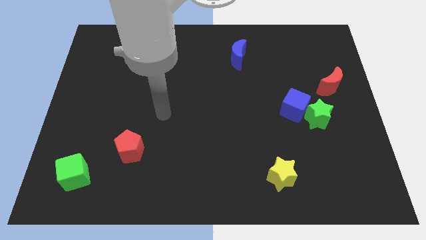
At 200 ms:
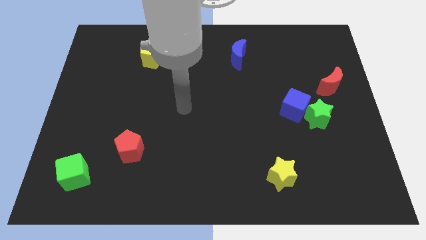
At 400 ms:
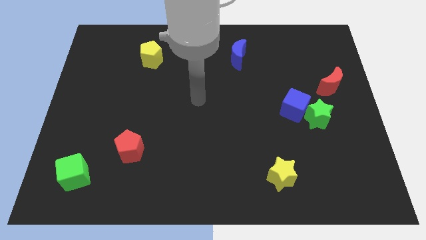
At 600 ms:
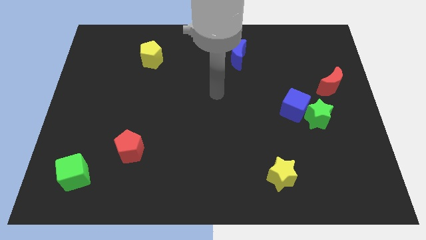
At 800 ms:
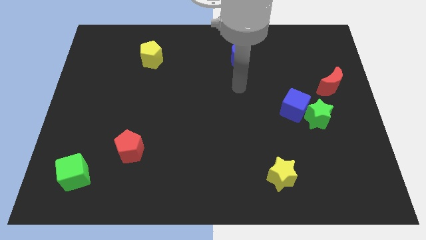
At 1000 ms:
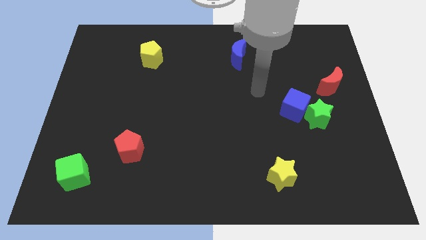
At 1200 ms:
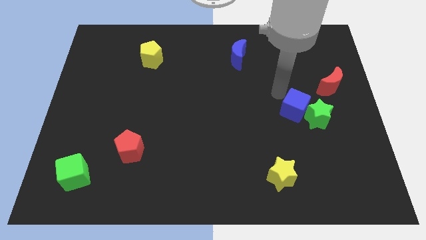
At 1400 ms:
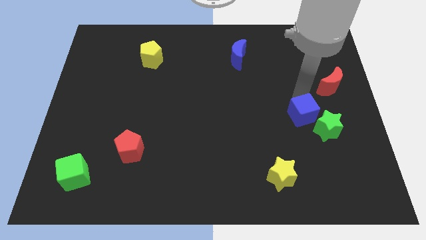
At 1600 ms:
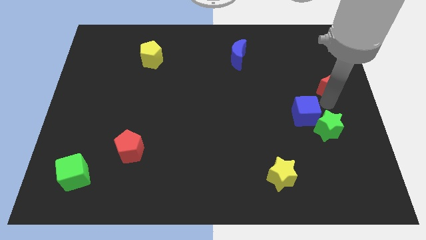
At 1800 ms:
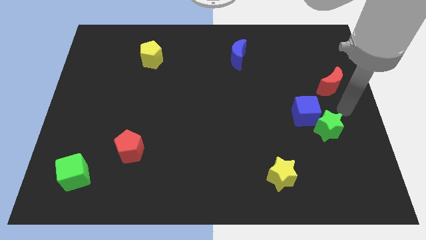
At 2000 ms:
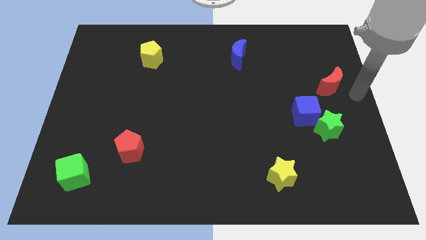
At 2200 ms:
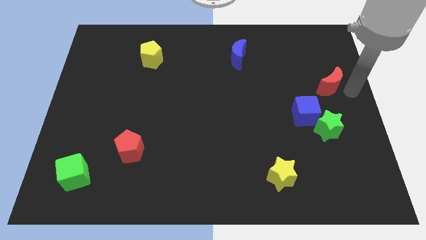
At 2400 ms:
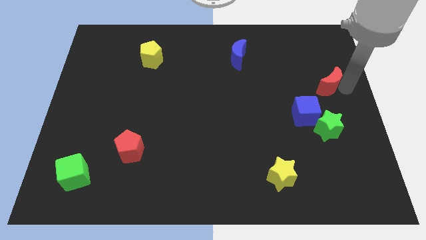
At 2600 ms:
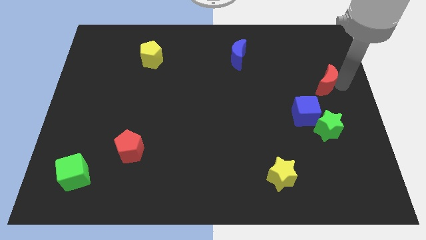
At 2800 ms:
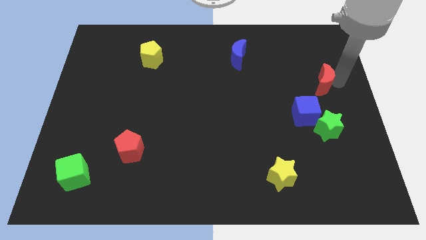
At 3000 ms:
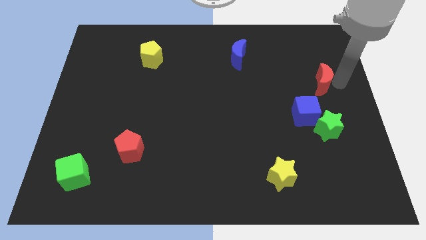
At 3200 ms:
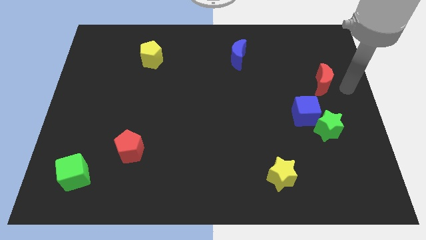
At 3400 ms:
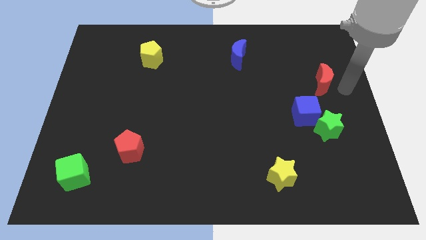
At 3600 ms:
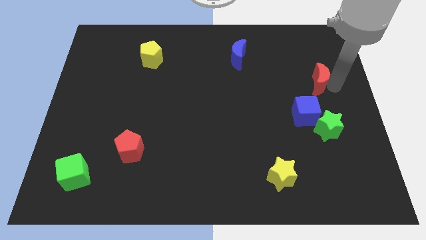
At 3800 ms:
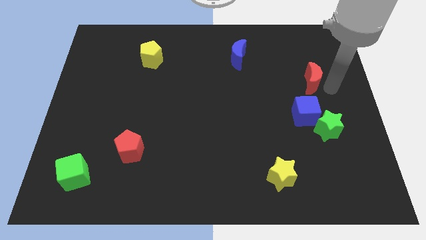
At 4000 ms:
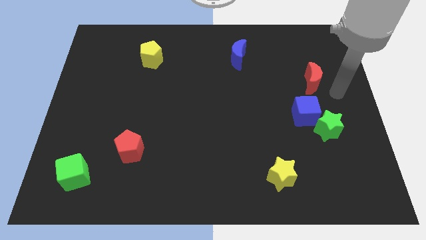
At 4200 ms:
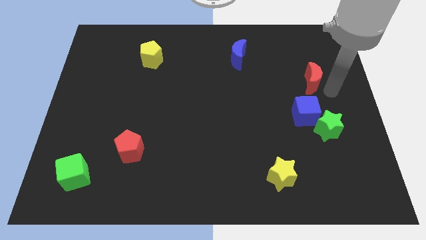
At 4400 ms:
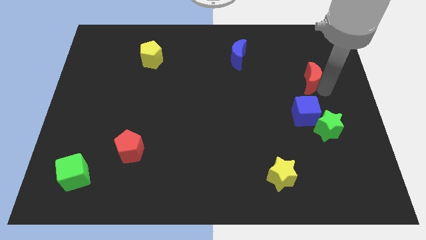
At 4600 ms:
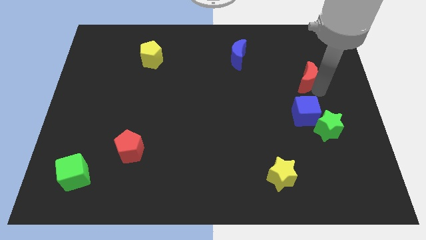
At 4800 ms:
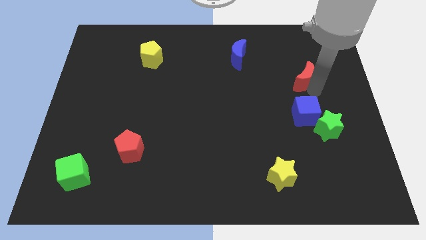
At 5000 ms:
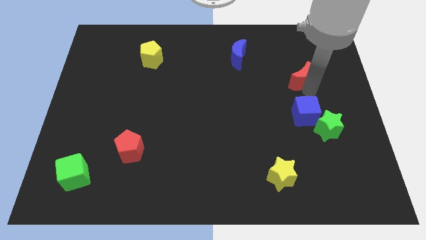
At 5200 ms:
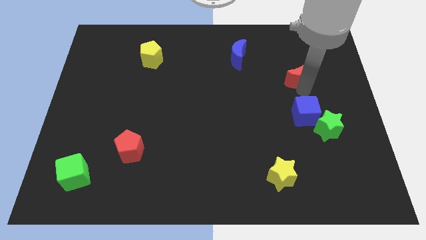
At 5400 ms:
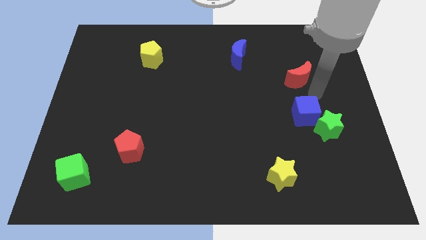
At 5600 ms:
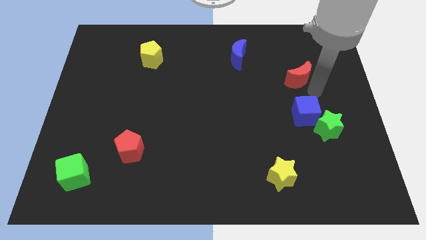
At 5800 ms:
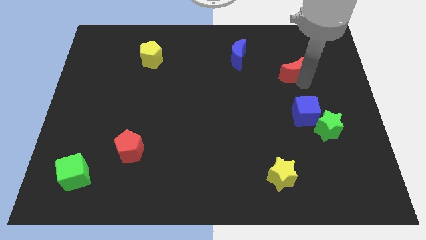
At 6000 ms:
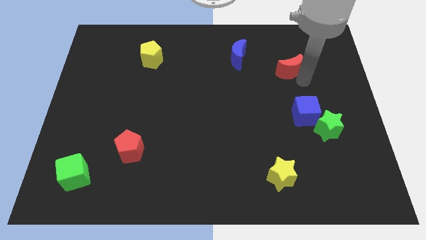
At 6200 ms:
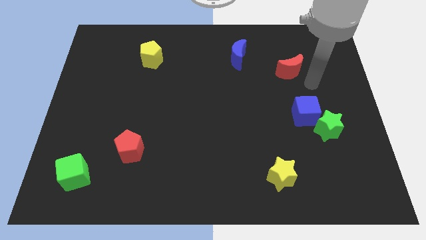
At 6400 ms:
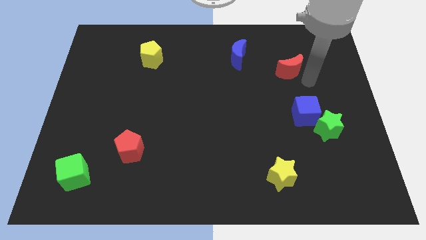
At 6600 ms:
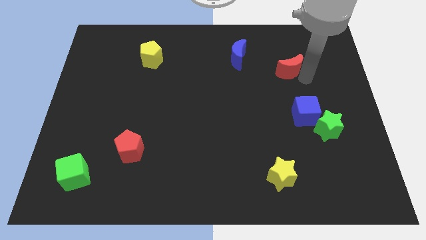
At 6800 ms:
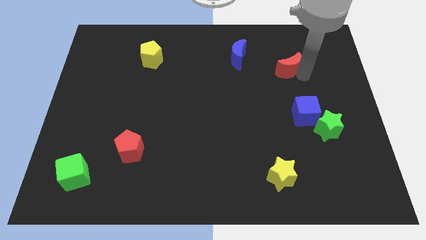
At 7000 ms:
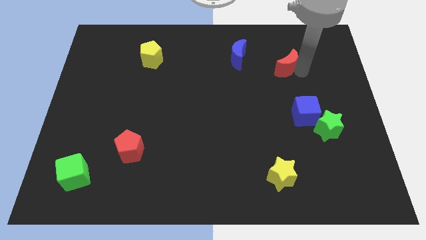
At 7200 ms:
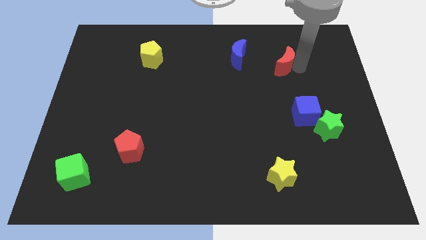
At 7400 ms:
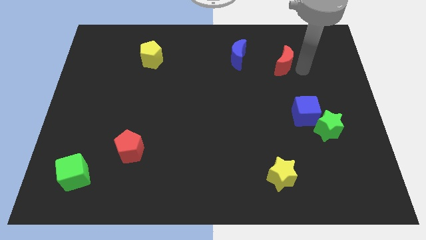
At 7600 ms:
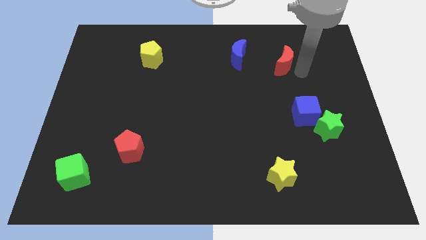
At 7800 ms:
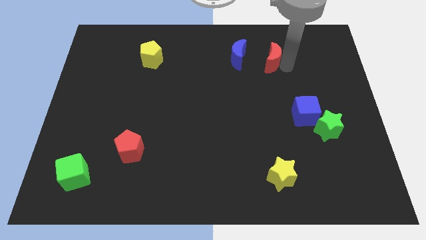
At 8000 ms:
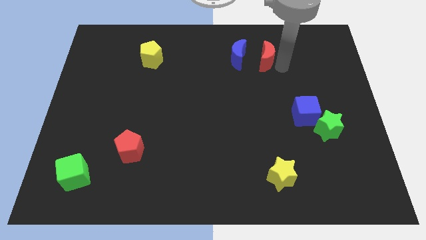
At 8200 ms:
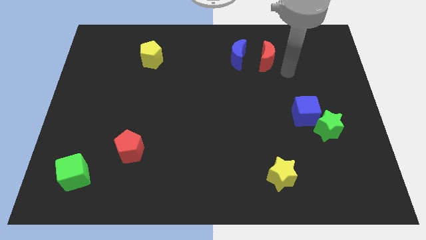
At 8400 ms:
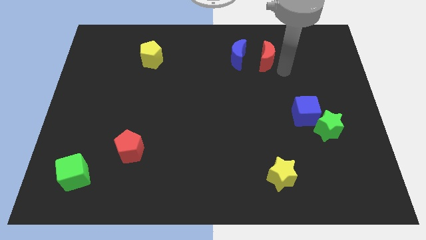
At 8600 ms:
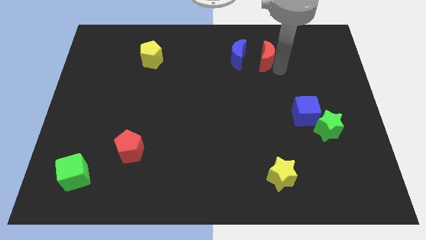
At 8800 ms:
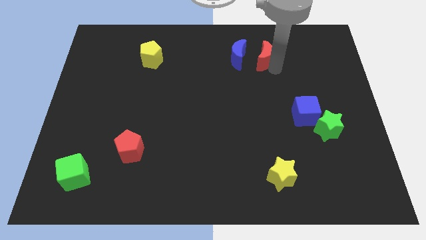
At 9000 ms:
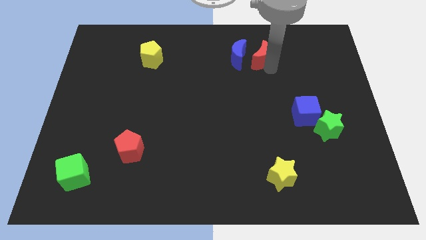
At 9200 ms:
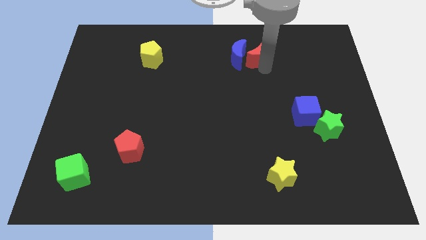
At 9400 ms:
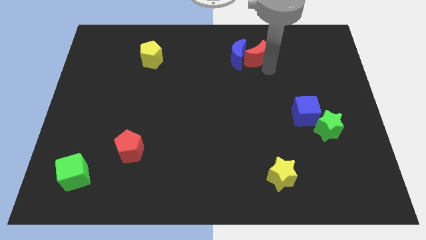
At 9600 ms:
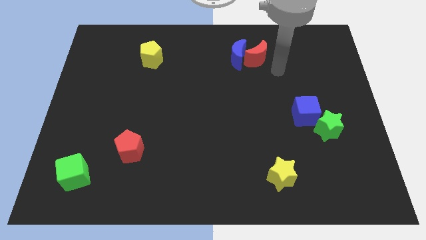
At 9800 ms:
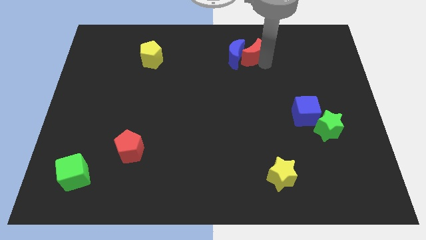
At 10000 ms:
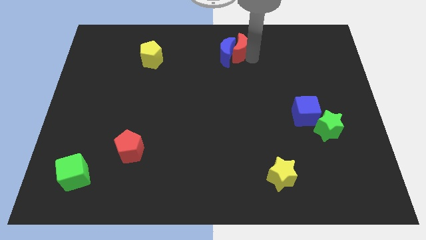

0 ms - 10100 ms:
put the red moon to the towards your base

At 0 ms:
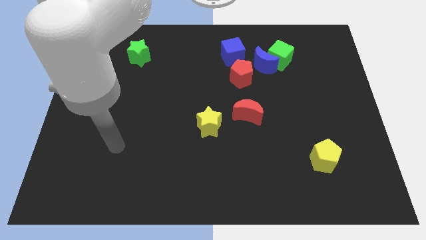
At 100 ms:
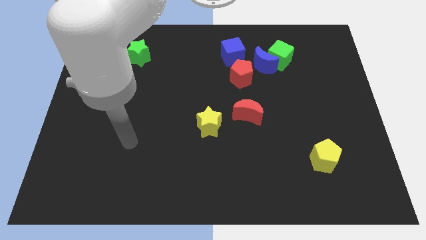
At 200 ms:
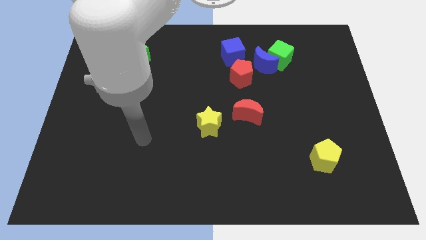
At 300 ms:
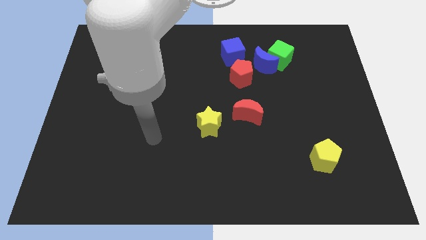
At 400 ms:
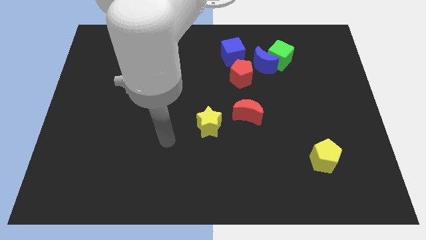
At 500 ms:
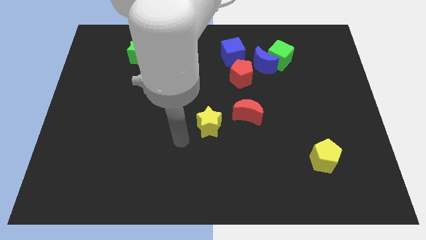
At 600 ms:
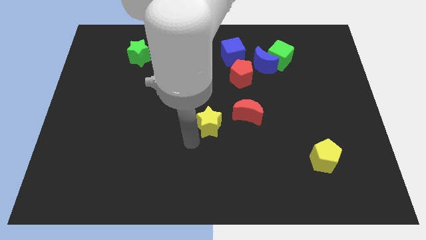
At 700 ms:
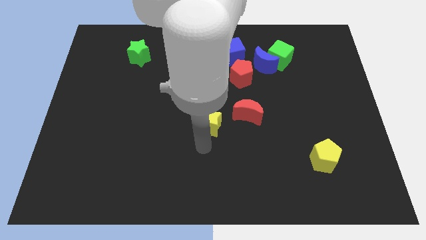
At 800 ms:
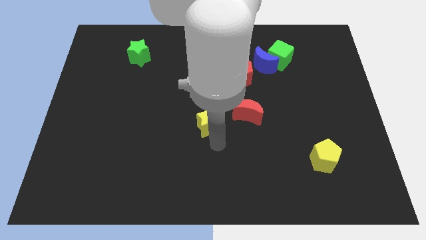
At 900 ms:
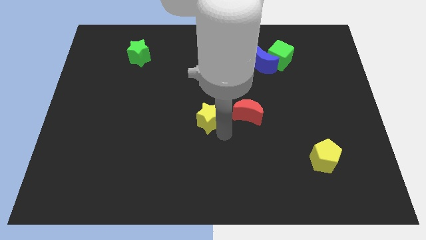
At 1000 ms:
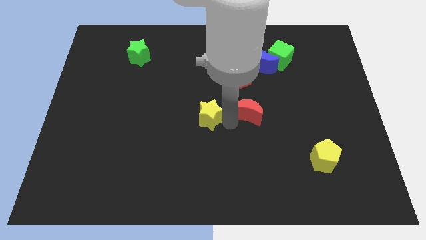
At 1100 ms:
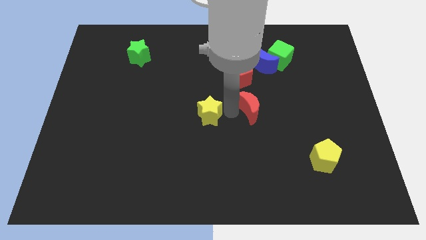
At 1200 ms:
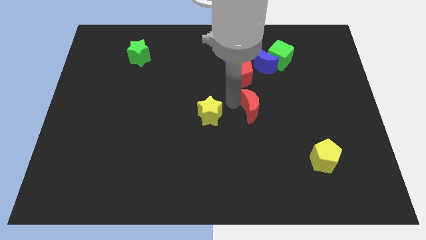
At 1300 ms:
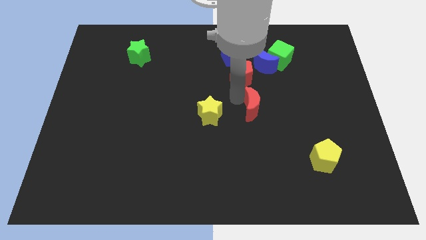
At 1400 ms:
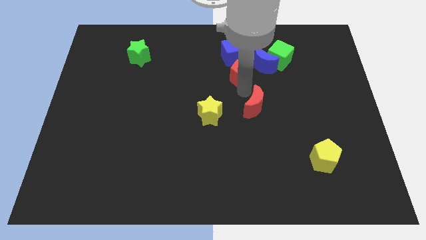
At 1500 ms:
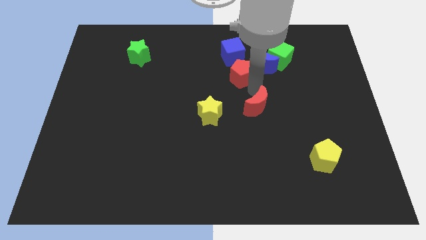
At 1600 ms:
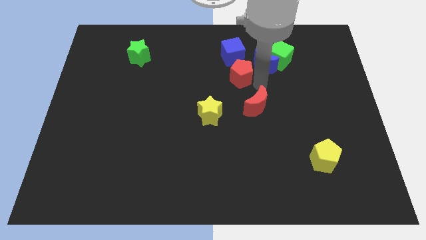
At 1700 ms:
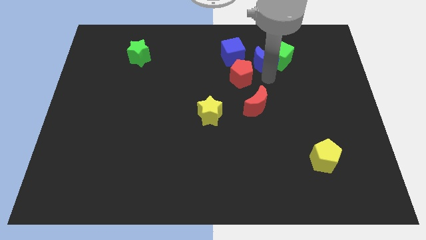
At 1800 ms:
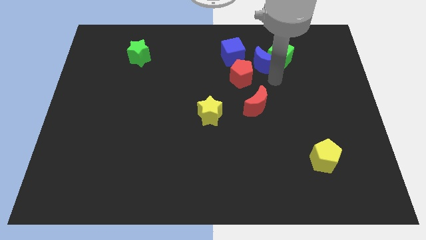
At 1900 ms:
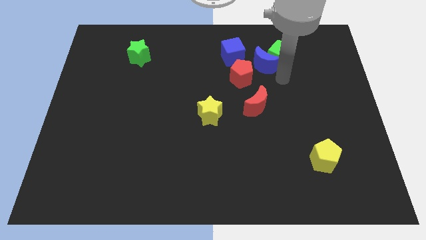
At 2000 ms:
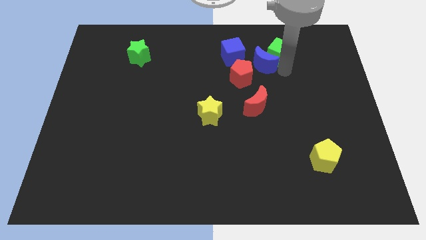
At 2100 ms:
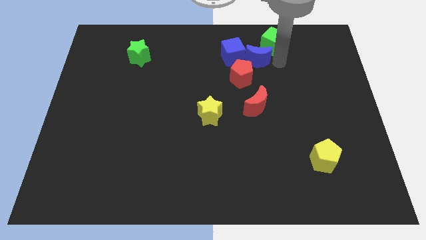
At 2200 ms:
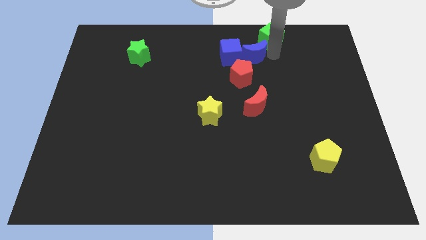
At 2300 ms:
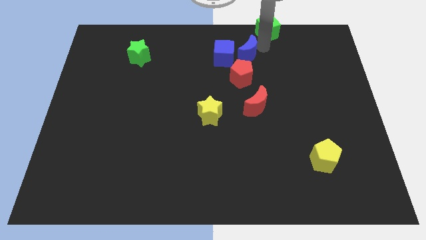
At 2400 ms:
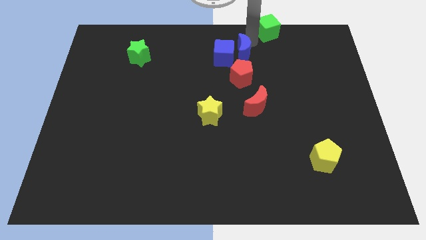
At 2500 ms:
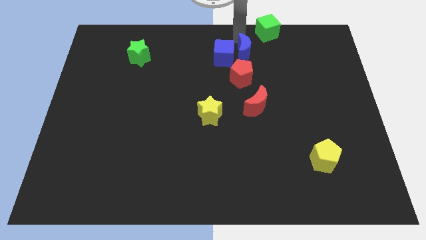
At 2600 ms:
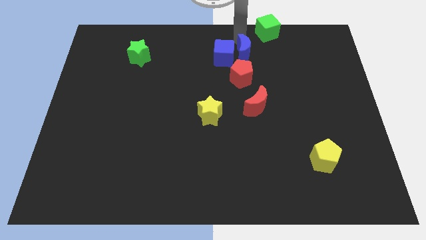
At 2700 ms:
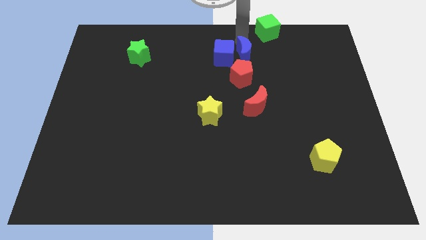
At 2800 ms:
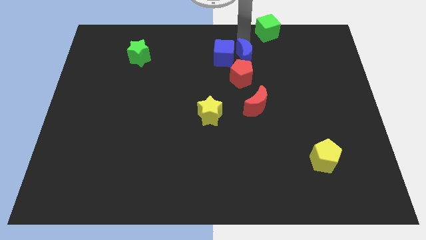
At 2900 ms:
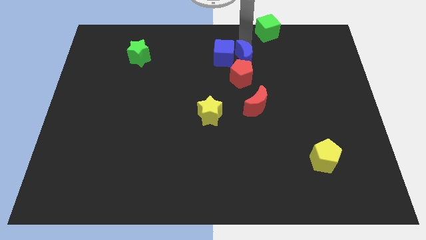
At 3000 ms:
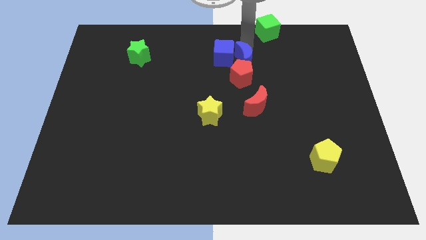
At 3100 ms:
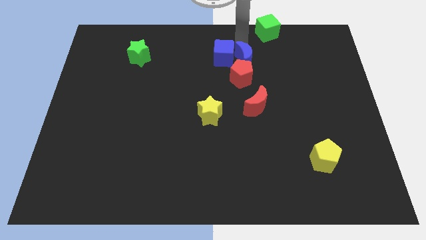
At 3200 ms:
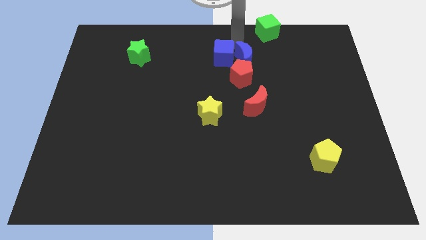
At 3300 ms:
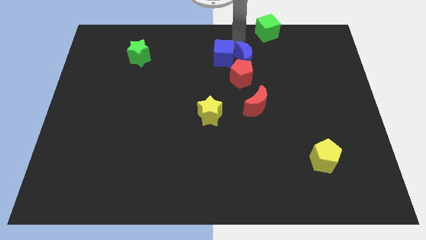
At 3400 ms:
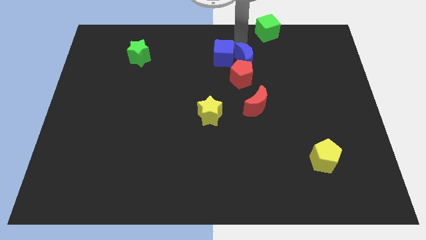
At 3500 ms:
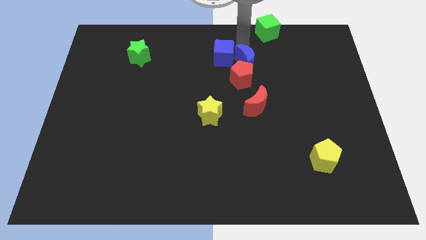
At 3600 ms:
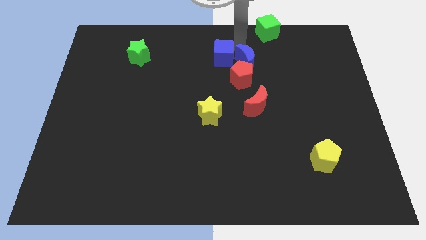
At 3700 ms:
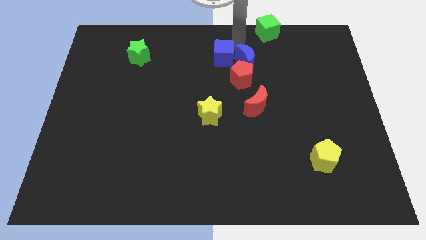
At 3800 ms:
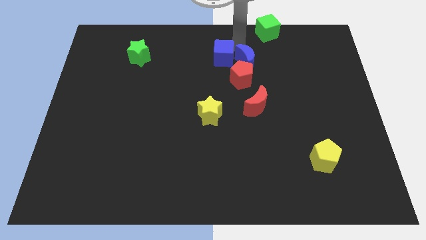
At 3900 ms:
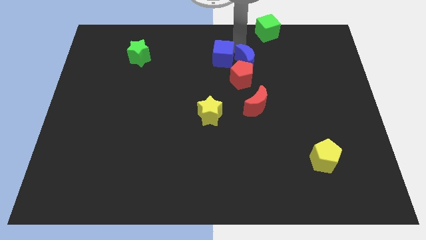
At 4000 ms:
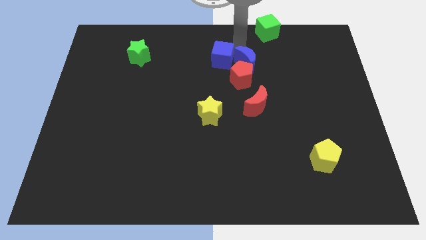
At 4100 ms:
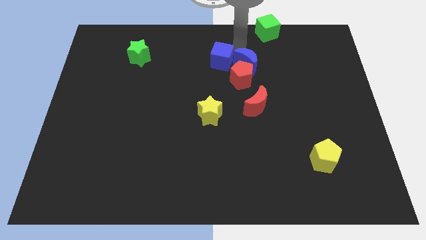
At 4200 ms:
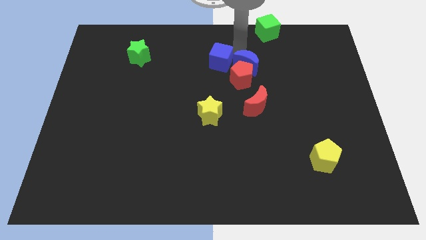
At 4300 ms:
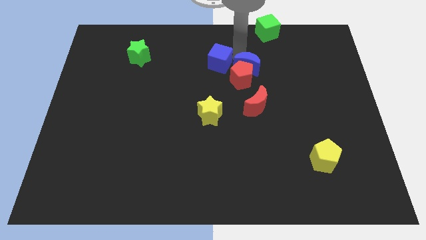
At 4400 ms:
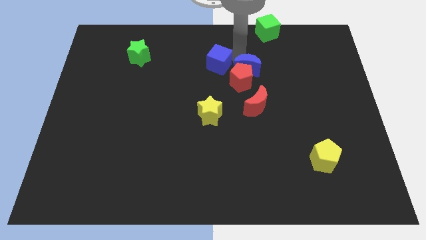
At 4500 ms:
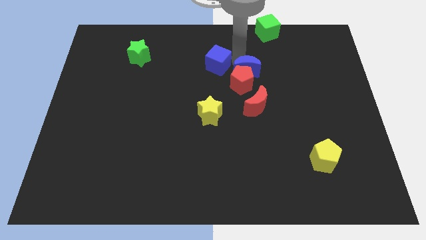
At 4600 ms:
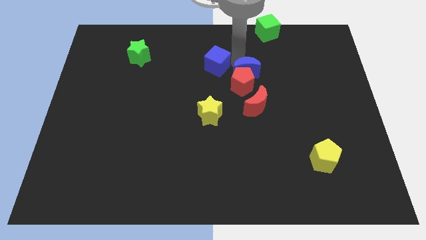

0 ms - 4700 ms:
move the blue moon to the center
